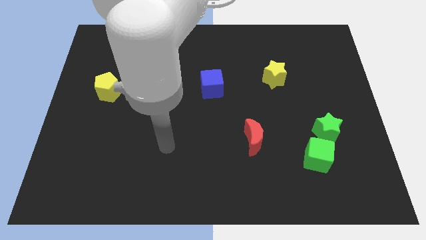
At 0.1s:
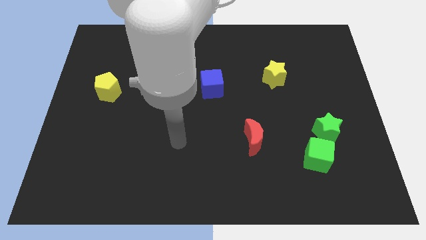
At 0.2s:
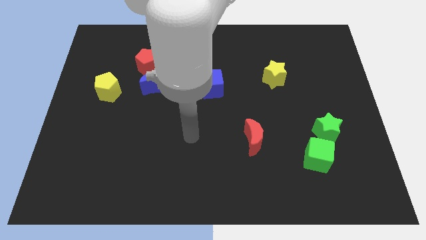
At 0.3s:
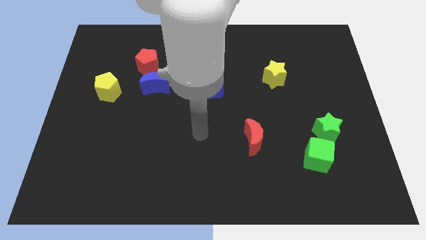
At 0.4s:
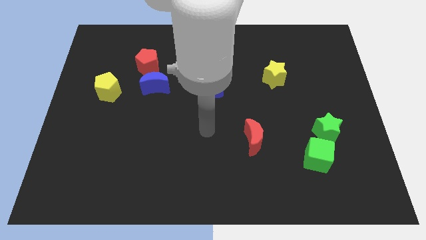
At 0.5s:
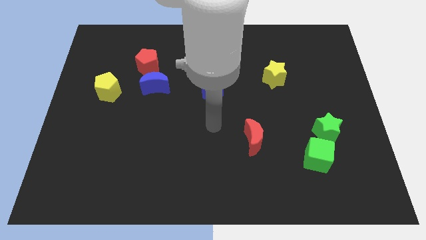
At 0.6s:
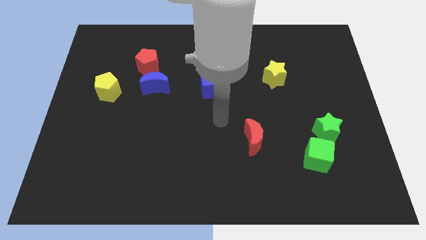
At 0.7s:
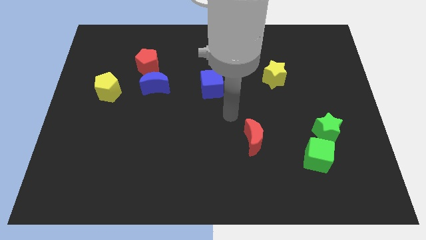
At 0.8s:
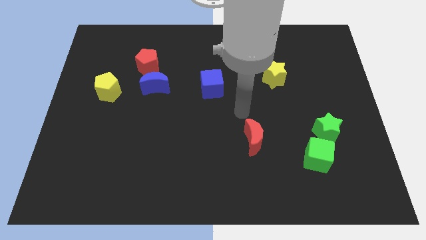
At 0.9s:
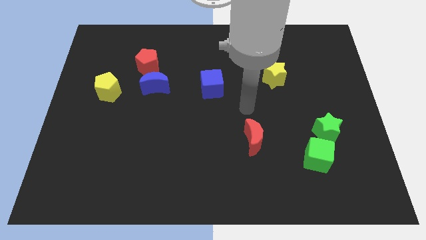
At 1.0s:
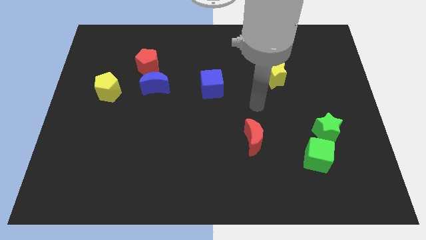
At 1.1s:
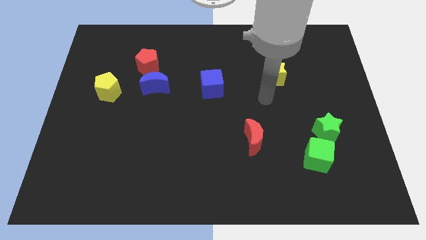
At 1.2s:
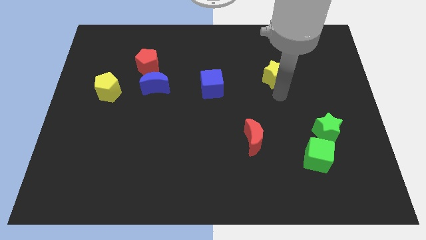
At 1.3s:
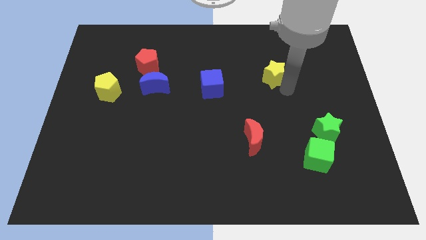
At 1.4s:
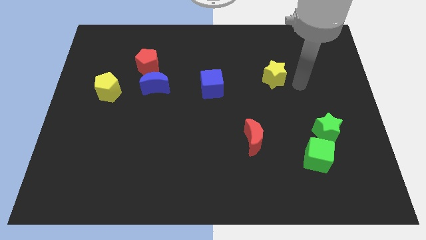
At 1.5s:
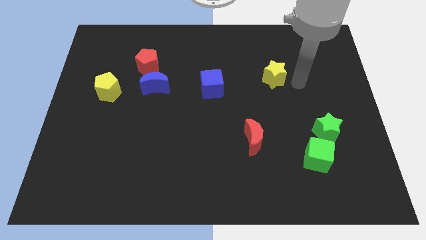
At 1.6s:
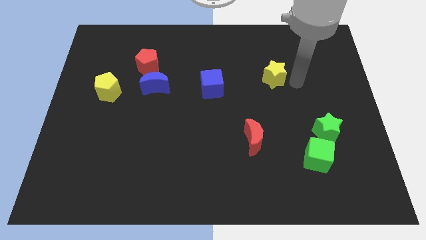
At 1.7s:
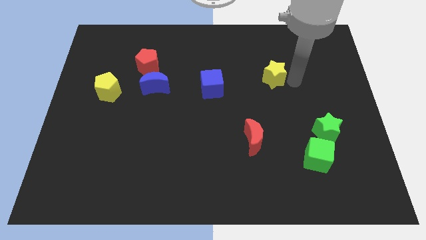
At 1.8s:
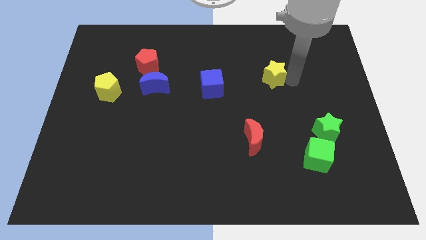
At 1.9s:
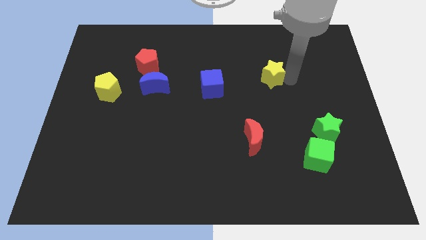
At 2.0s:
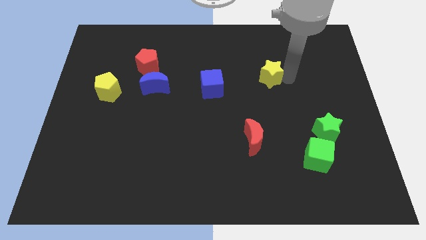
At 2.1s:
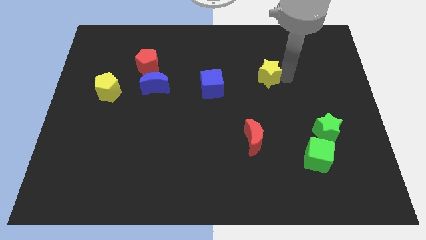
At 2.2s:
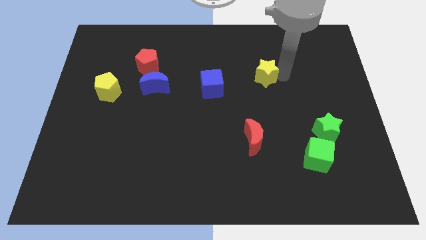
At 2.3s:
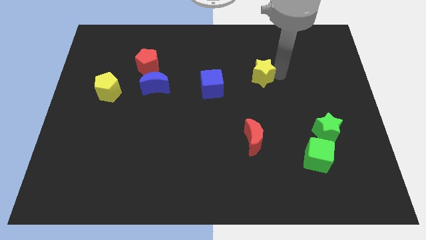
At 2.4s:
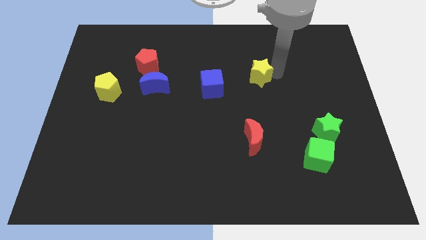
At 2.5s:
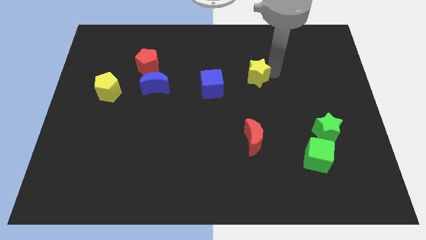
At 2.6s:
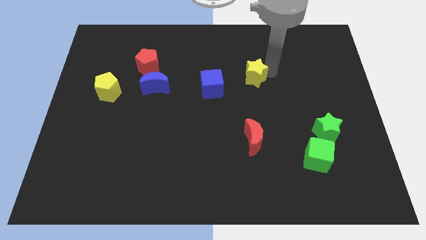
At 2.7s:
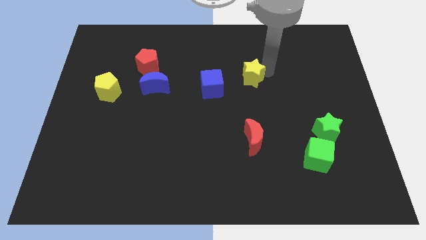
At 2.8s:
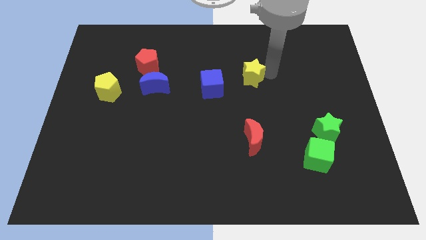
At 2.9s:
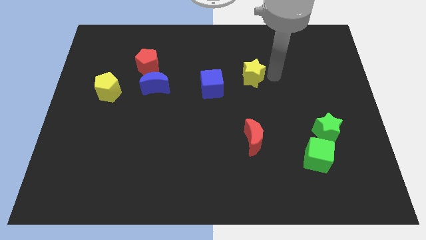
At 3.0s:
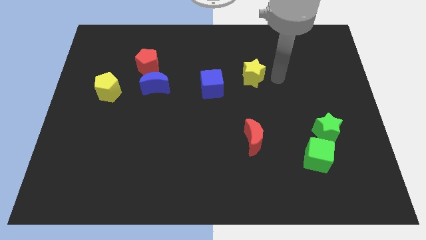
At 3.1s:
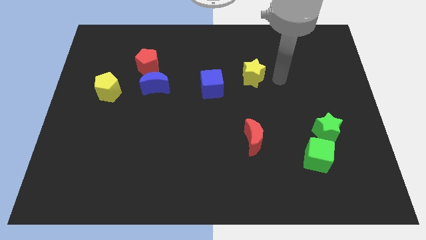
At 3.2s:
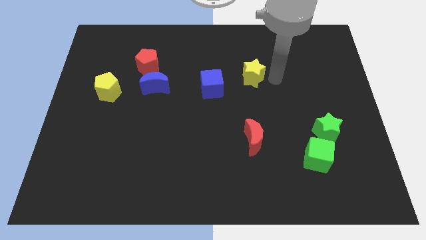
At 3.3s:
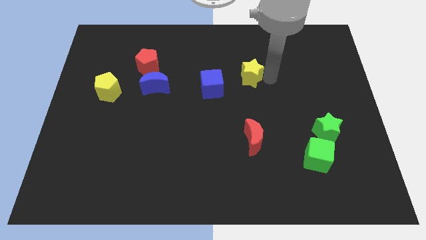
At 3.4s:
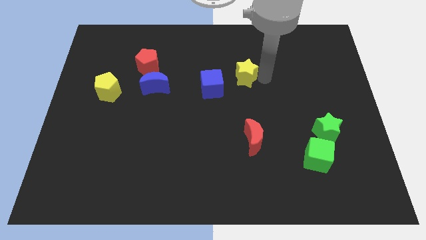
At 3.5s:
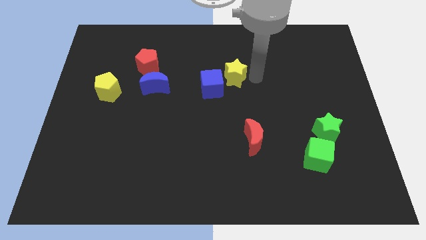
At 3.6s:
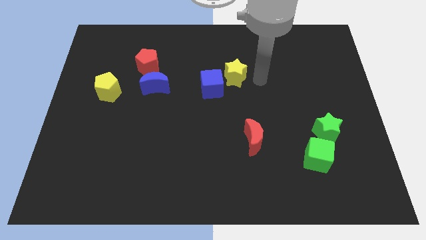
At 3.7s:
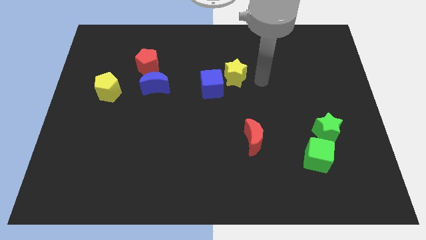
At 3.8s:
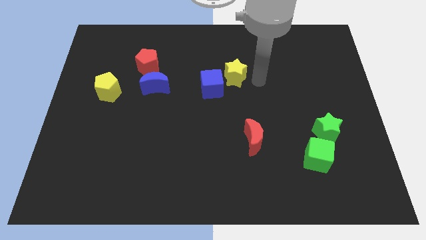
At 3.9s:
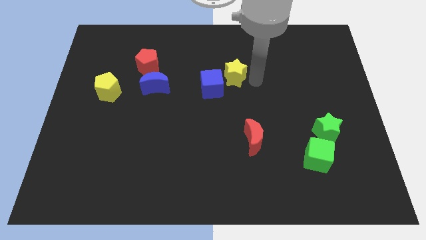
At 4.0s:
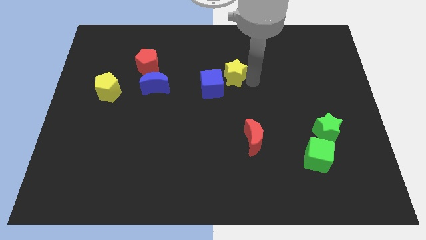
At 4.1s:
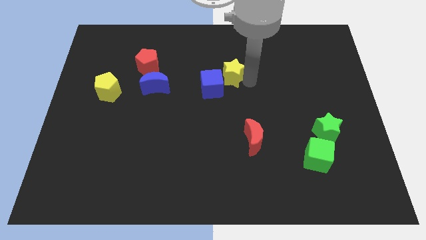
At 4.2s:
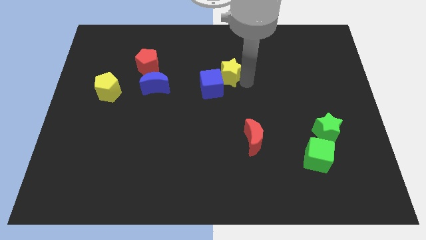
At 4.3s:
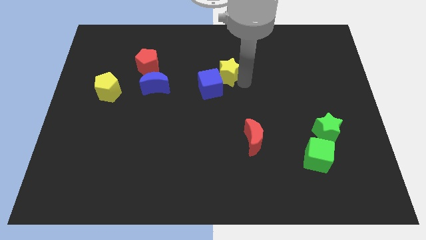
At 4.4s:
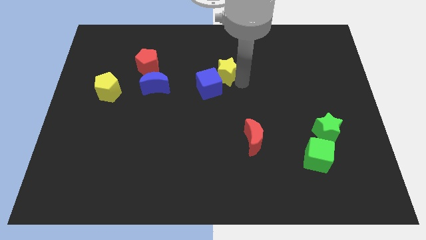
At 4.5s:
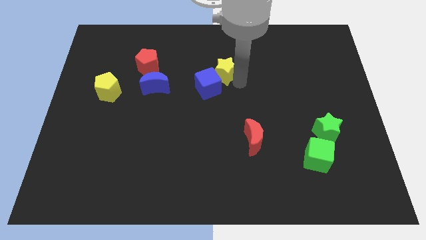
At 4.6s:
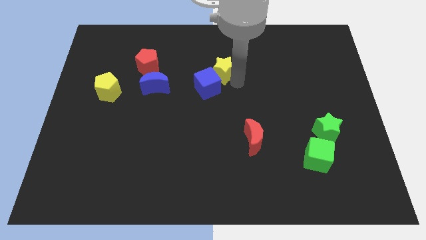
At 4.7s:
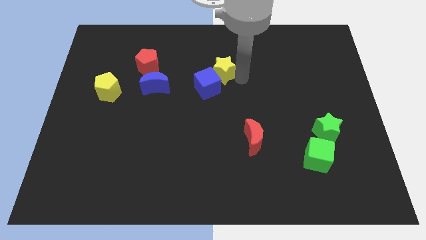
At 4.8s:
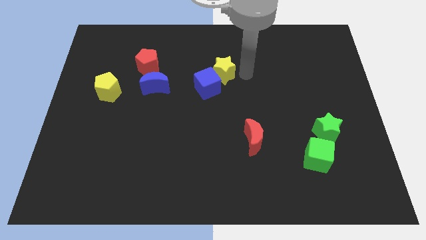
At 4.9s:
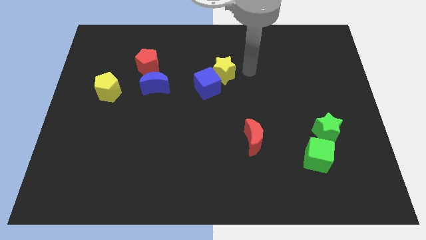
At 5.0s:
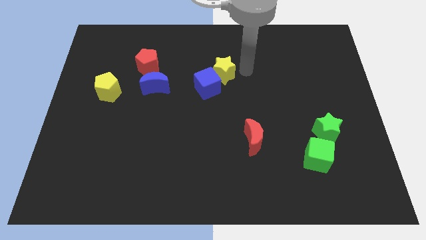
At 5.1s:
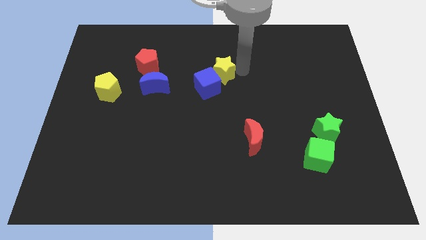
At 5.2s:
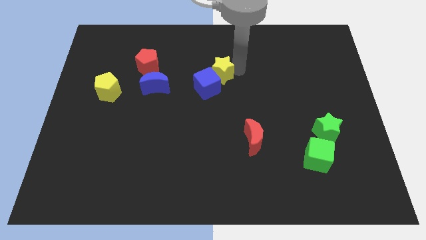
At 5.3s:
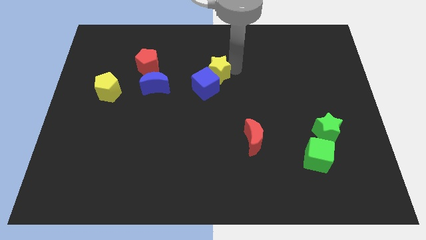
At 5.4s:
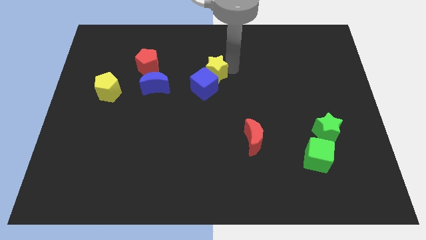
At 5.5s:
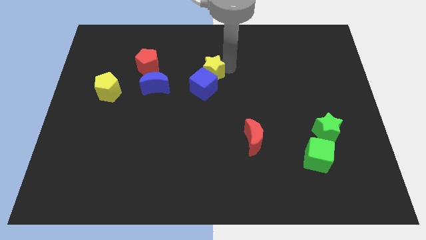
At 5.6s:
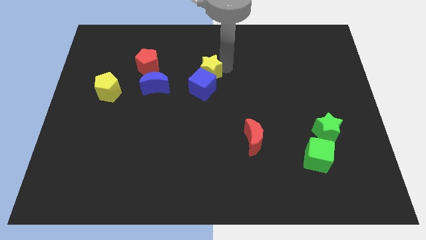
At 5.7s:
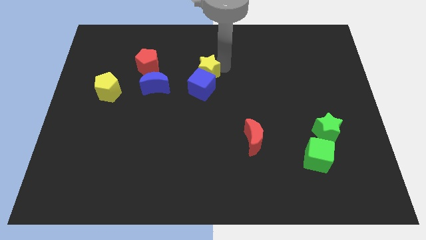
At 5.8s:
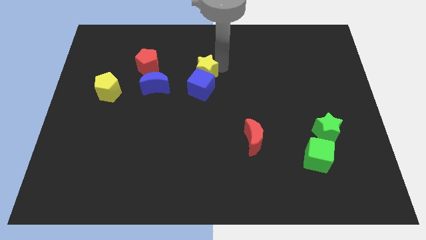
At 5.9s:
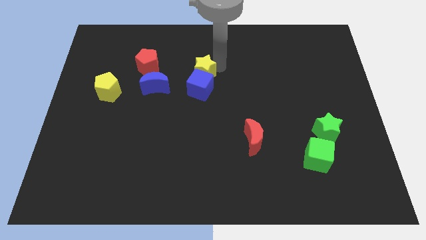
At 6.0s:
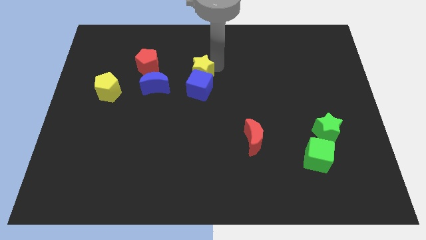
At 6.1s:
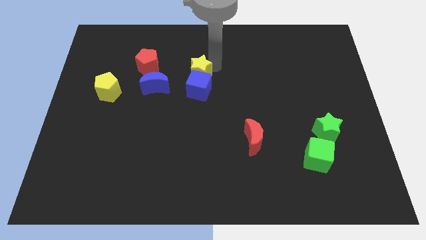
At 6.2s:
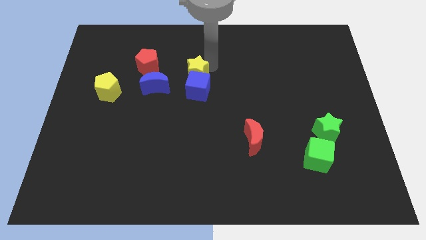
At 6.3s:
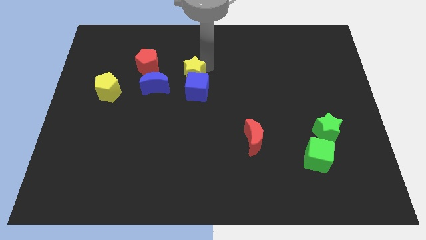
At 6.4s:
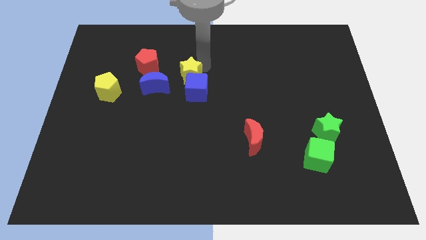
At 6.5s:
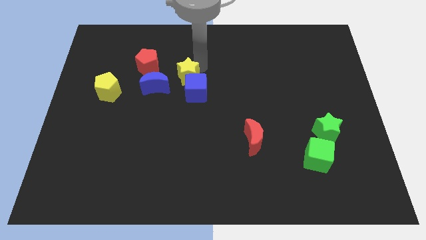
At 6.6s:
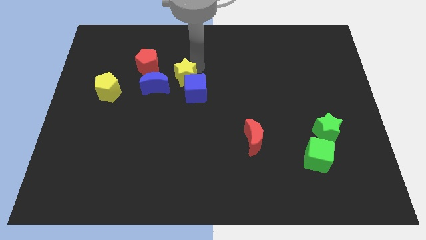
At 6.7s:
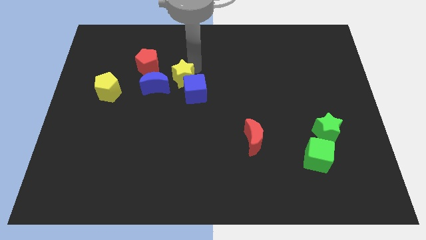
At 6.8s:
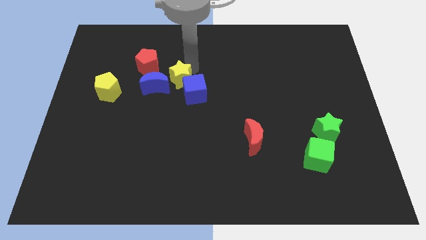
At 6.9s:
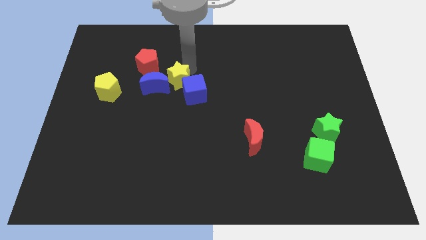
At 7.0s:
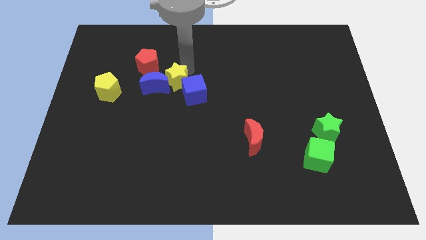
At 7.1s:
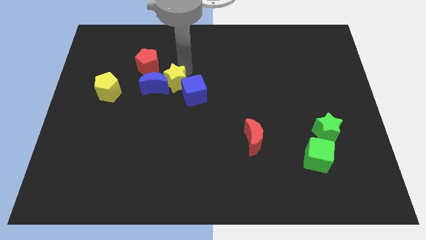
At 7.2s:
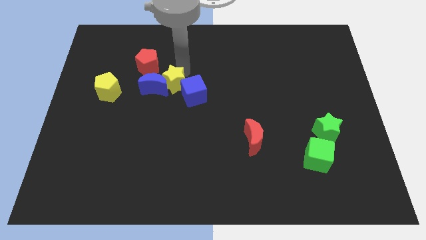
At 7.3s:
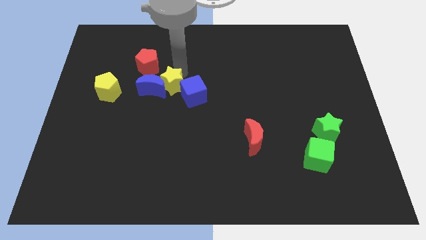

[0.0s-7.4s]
slide the yellow star to the right side of the yellow pentagon

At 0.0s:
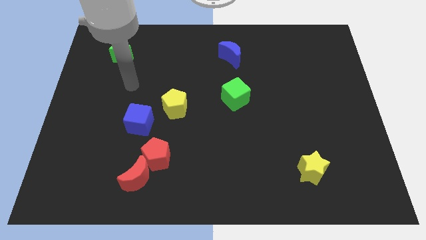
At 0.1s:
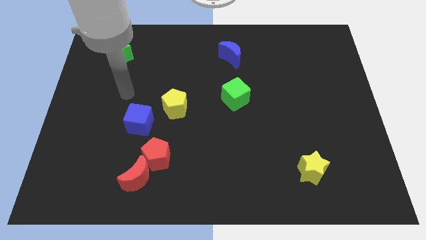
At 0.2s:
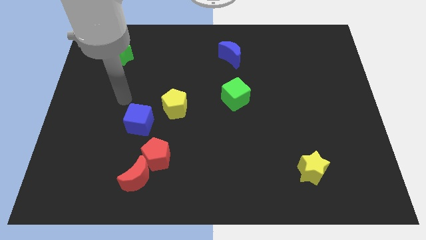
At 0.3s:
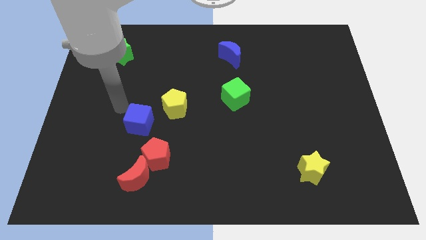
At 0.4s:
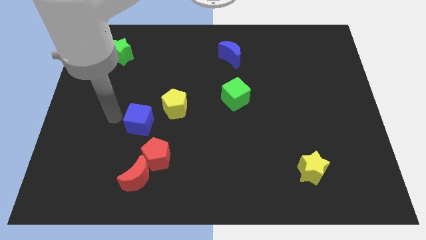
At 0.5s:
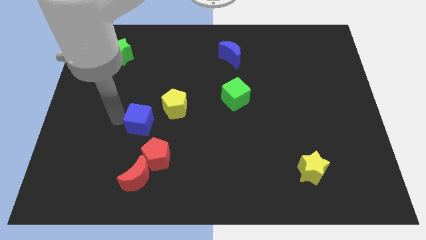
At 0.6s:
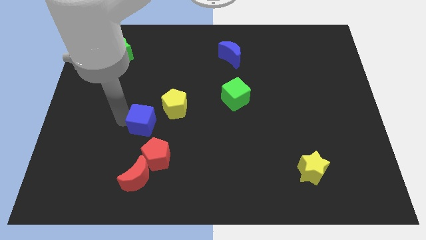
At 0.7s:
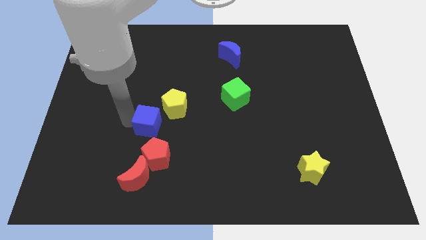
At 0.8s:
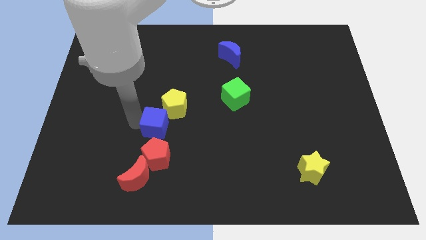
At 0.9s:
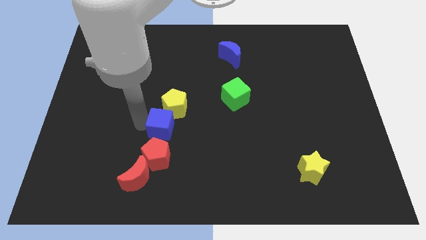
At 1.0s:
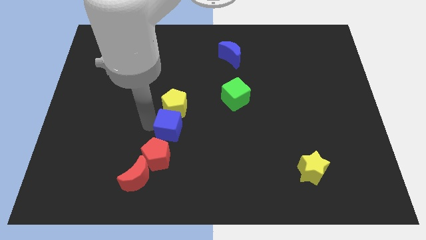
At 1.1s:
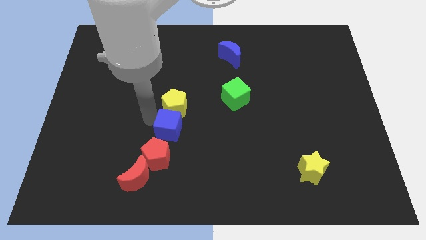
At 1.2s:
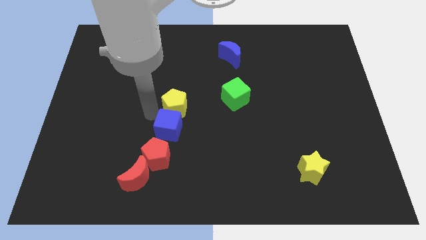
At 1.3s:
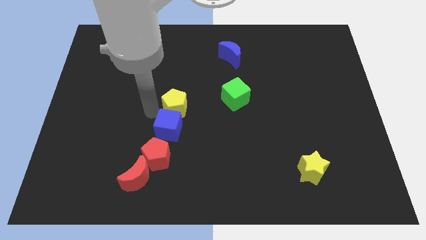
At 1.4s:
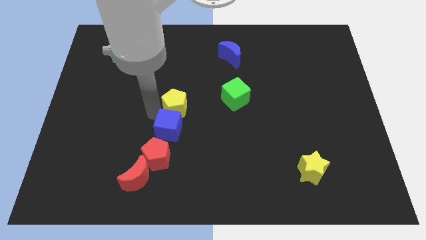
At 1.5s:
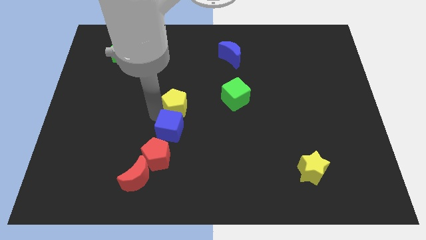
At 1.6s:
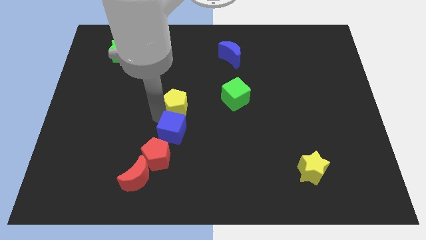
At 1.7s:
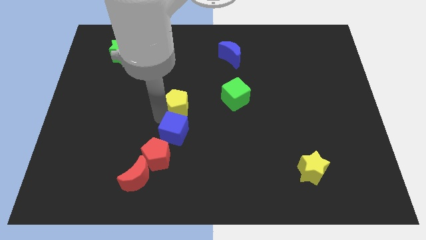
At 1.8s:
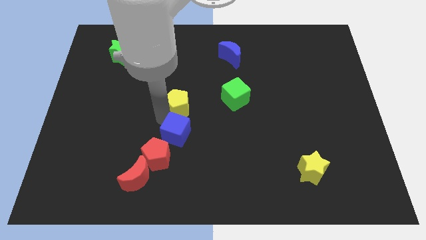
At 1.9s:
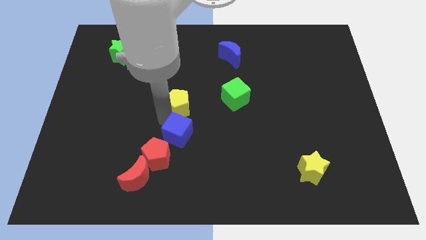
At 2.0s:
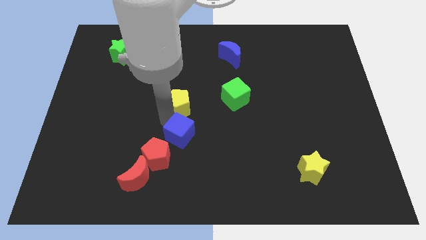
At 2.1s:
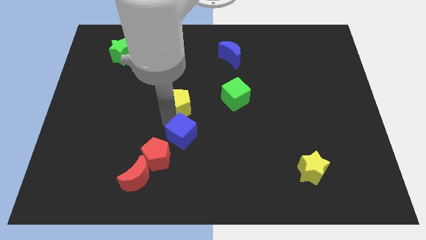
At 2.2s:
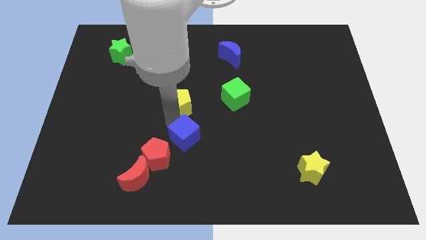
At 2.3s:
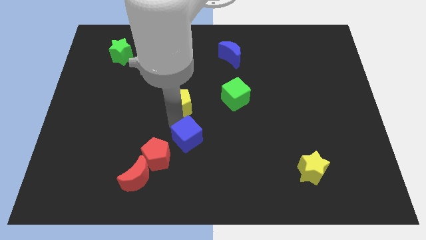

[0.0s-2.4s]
slide the blue cube to the right side of the red pentagon
